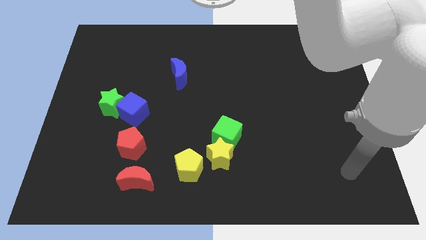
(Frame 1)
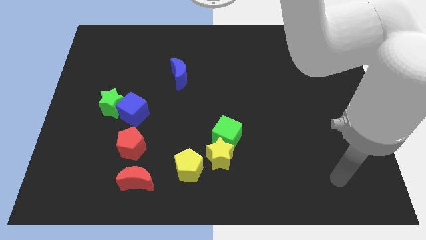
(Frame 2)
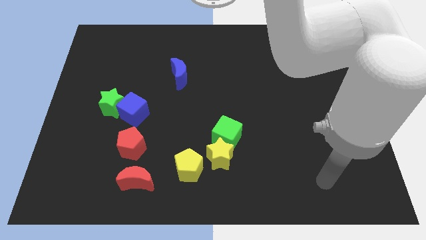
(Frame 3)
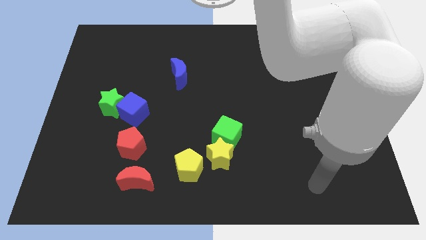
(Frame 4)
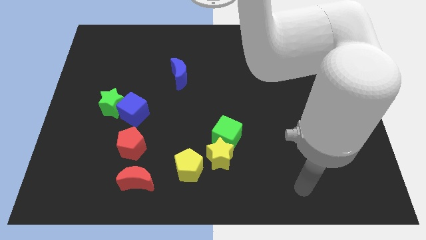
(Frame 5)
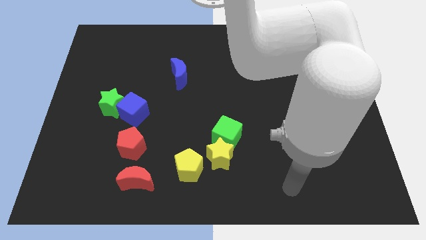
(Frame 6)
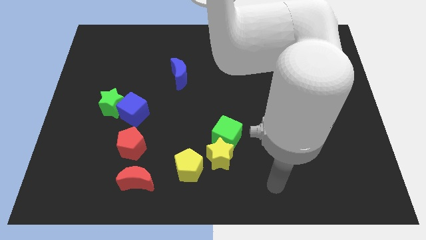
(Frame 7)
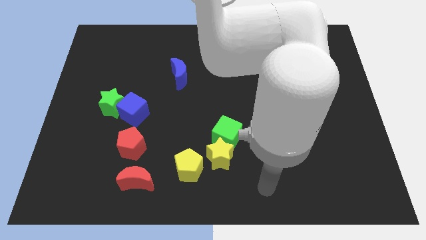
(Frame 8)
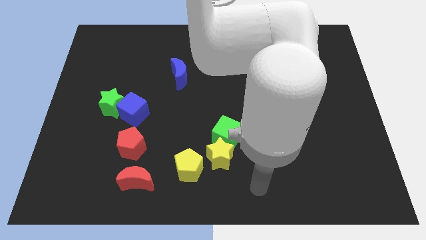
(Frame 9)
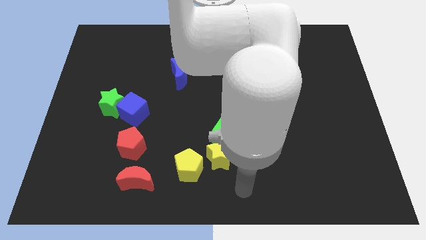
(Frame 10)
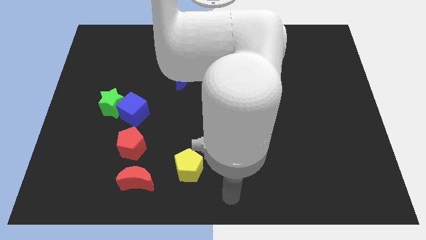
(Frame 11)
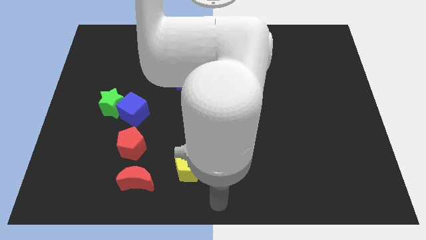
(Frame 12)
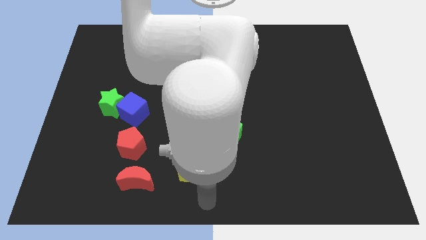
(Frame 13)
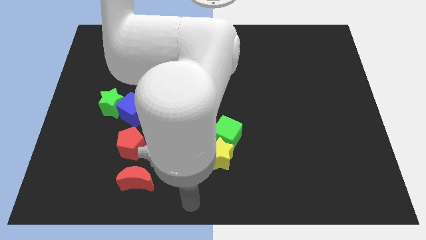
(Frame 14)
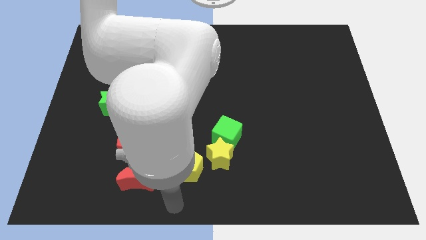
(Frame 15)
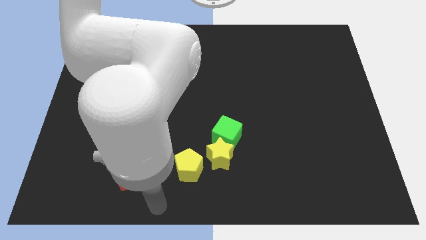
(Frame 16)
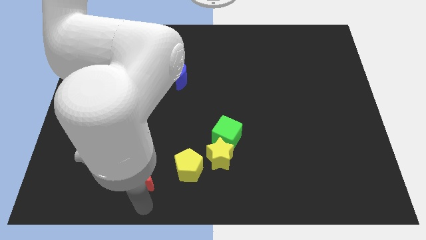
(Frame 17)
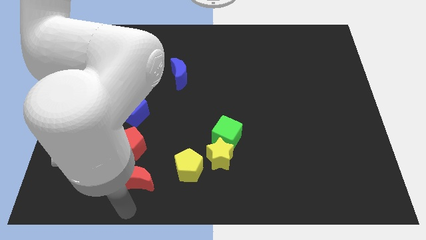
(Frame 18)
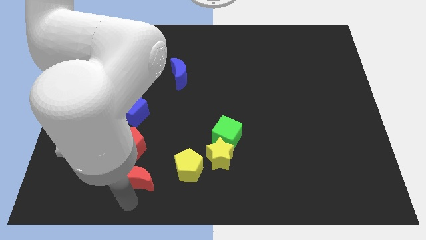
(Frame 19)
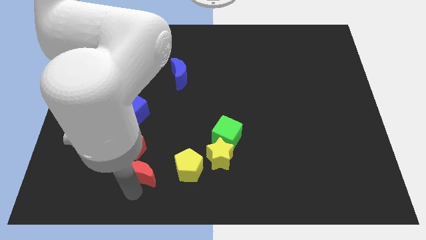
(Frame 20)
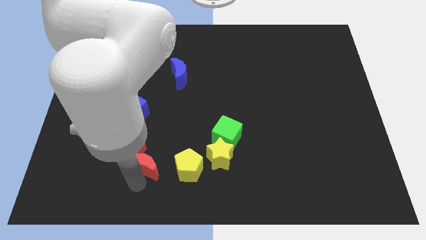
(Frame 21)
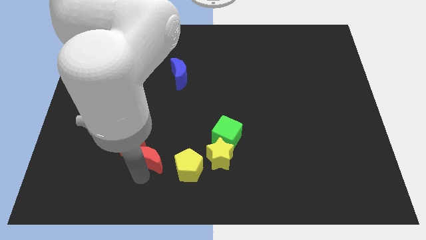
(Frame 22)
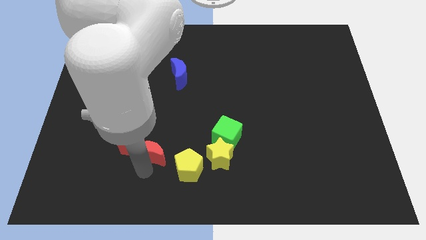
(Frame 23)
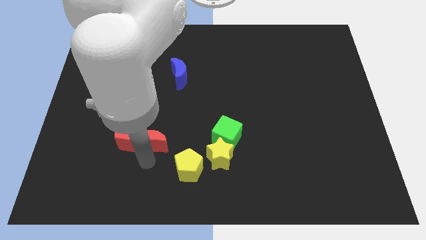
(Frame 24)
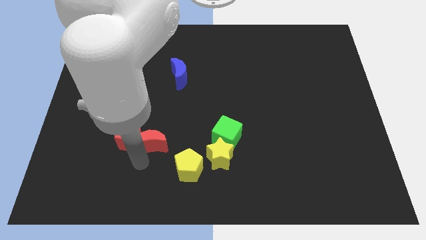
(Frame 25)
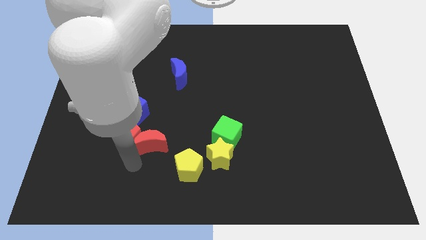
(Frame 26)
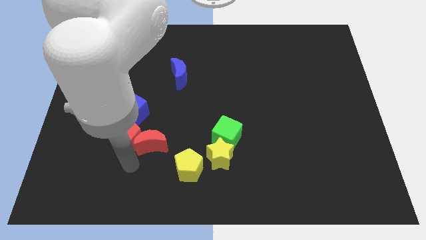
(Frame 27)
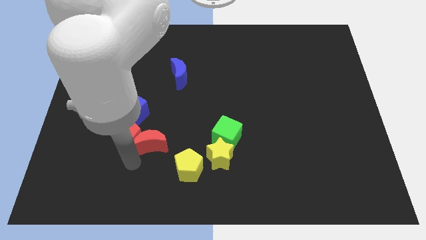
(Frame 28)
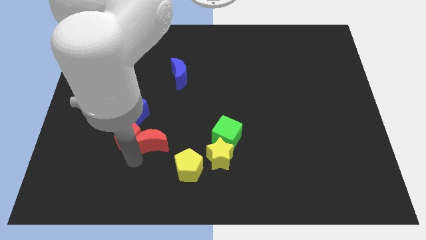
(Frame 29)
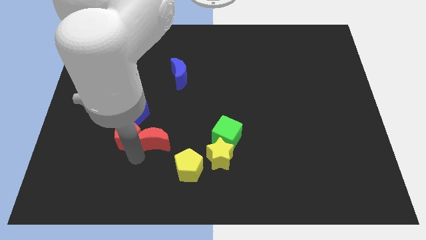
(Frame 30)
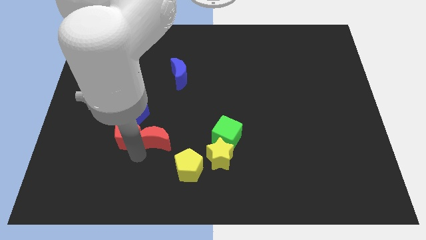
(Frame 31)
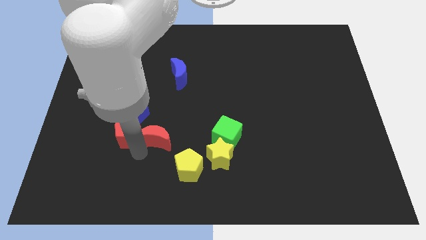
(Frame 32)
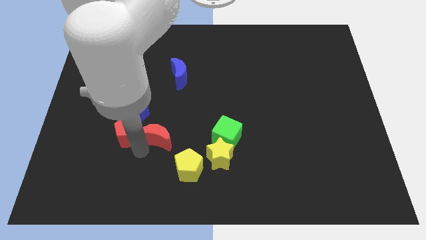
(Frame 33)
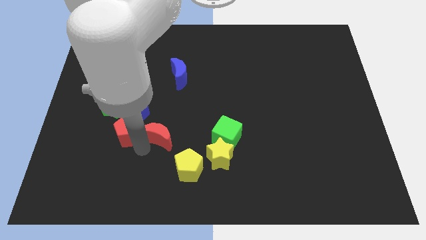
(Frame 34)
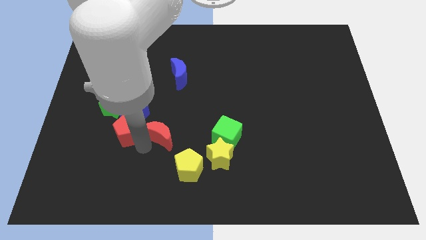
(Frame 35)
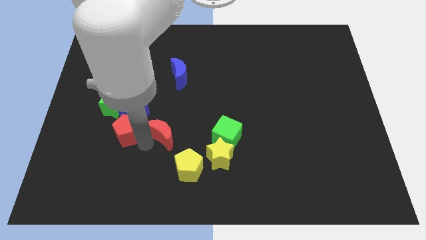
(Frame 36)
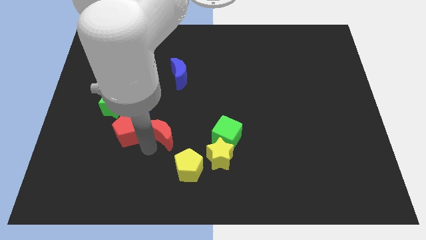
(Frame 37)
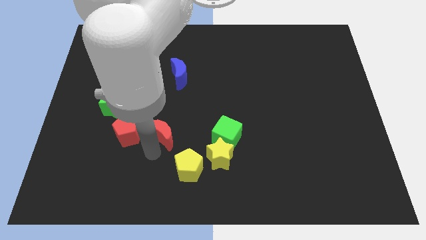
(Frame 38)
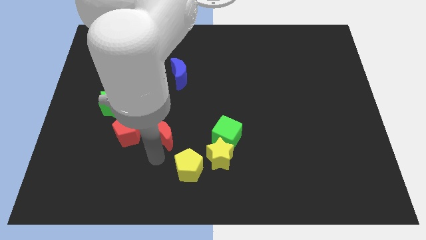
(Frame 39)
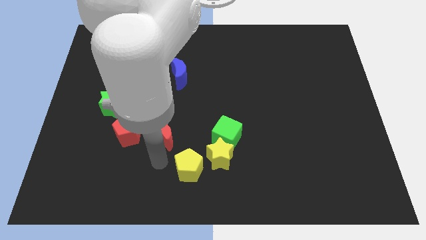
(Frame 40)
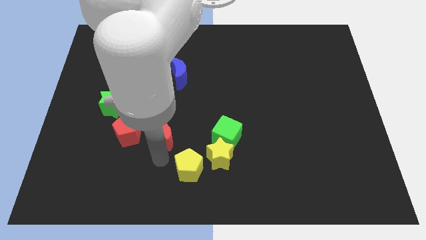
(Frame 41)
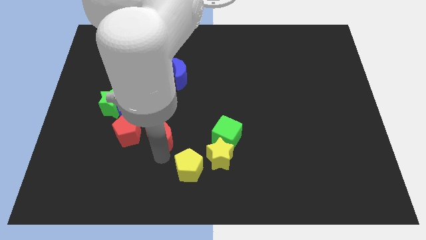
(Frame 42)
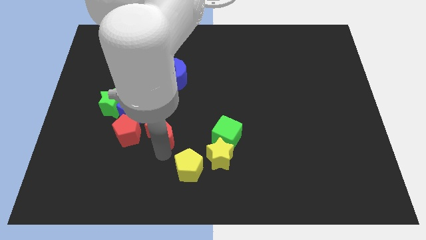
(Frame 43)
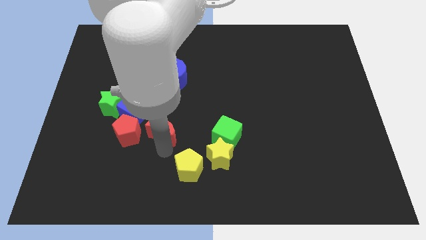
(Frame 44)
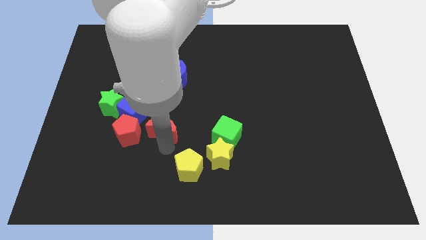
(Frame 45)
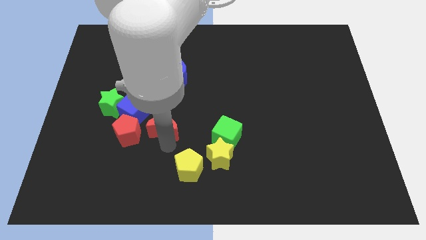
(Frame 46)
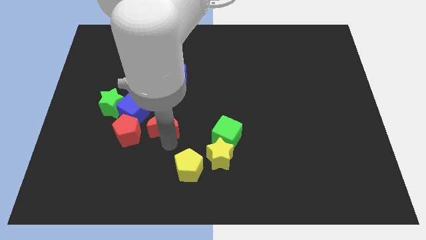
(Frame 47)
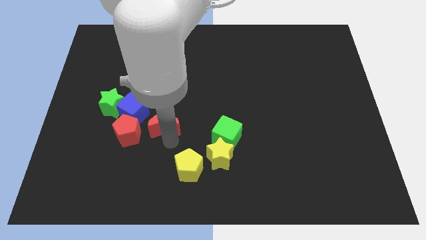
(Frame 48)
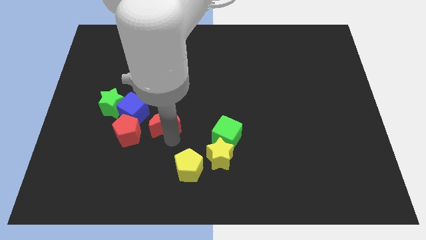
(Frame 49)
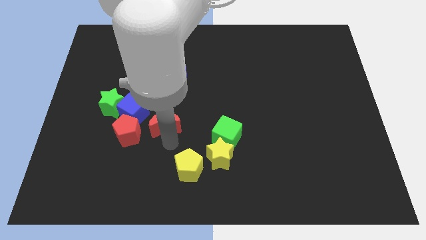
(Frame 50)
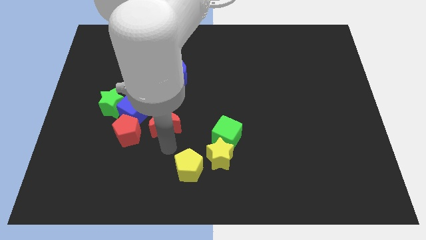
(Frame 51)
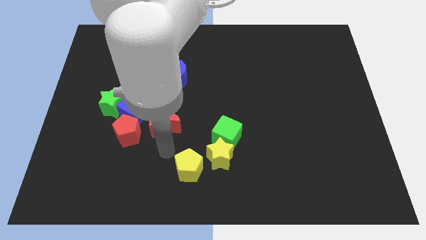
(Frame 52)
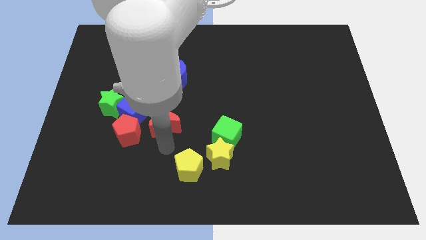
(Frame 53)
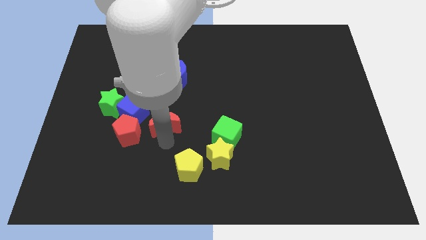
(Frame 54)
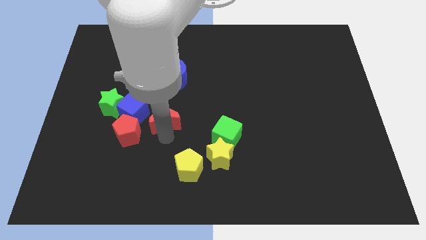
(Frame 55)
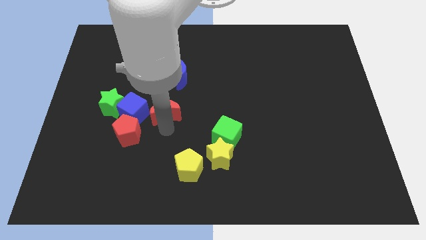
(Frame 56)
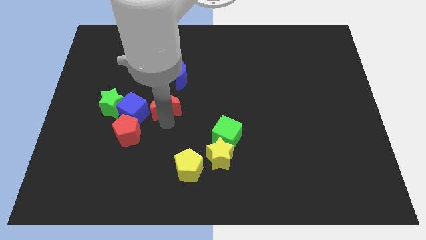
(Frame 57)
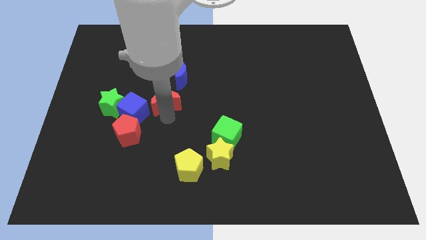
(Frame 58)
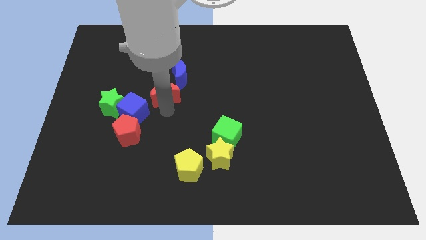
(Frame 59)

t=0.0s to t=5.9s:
move the red moon up

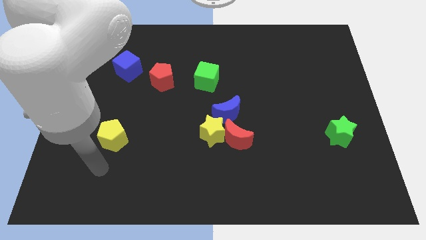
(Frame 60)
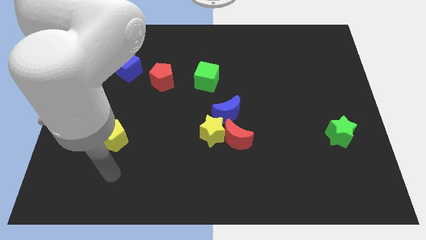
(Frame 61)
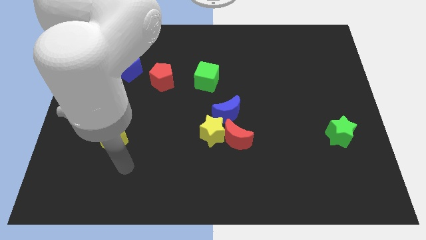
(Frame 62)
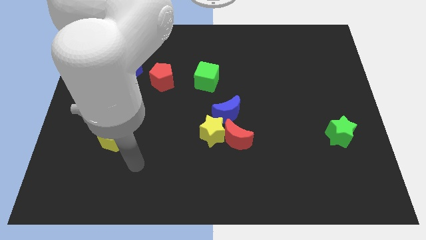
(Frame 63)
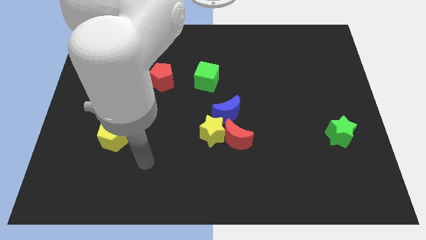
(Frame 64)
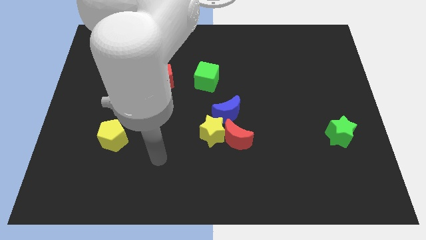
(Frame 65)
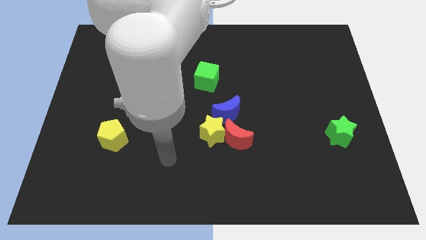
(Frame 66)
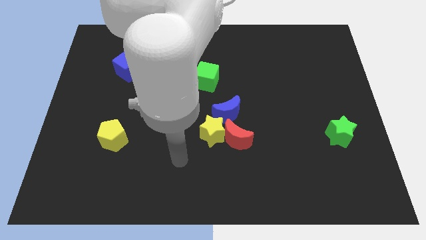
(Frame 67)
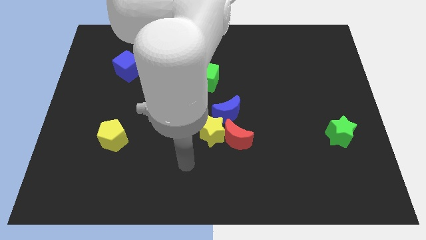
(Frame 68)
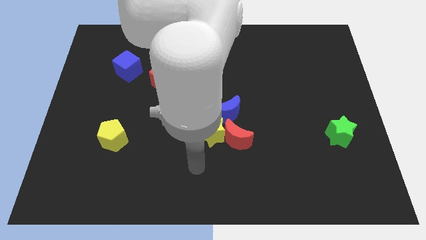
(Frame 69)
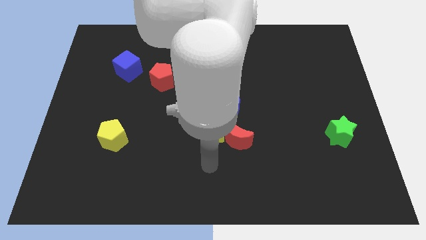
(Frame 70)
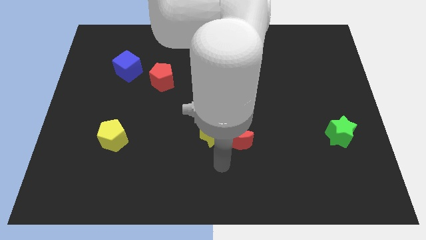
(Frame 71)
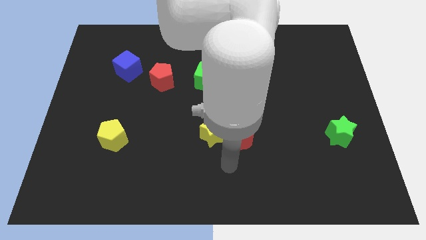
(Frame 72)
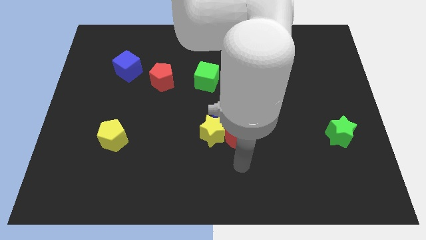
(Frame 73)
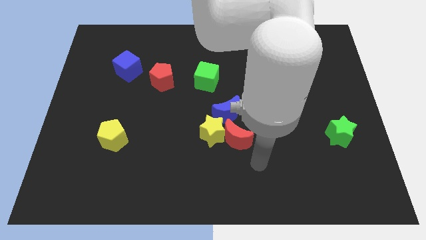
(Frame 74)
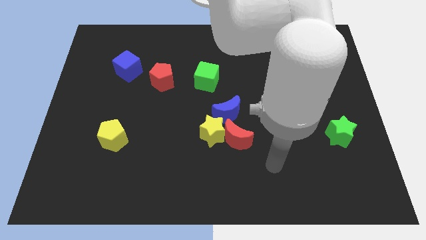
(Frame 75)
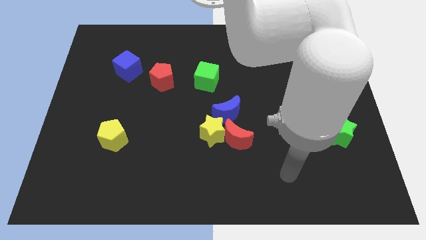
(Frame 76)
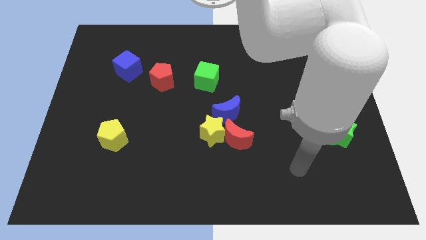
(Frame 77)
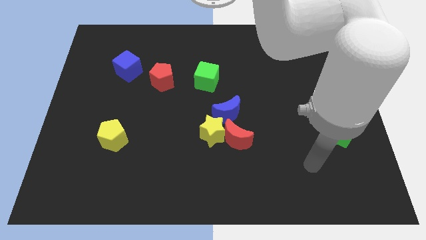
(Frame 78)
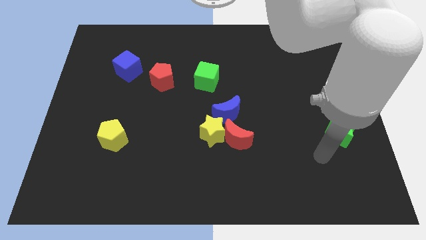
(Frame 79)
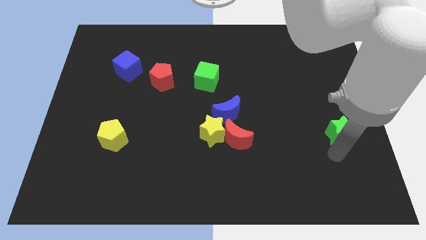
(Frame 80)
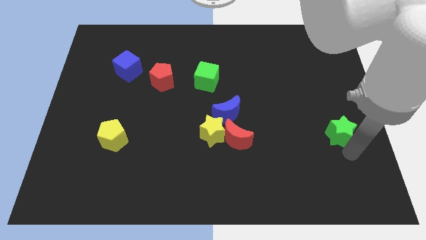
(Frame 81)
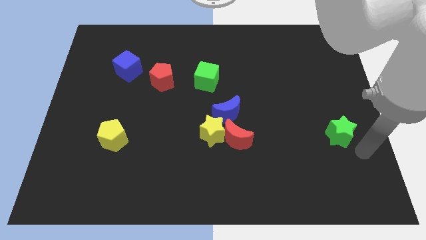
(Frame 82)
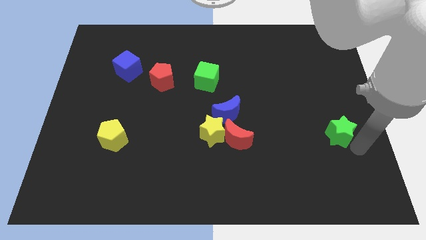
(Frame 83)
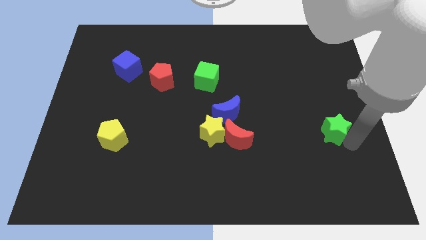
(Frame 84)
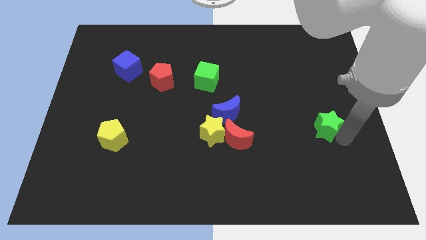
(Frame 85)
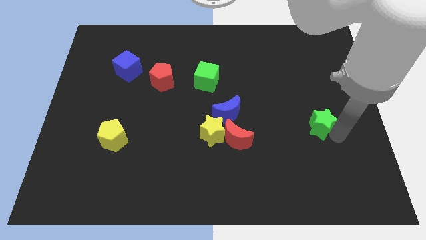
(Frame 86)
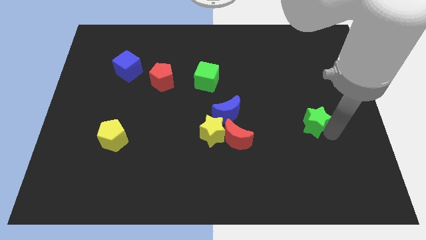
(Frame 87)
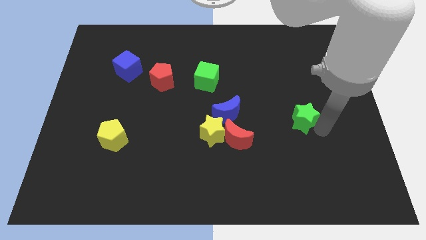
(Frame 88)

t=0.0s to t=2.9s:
move the green star up and left diagonally somewhat
